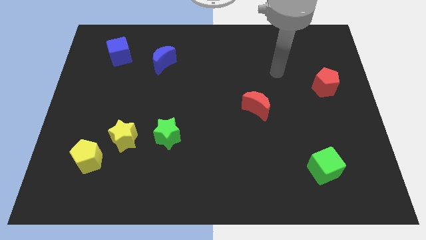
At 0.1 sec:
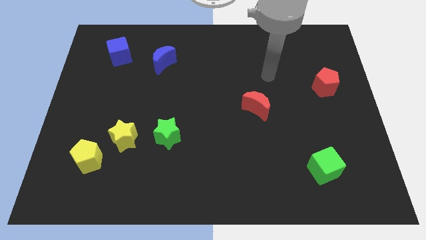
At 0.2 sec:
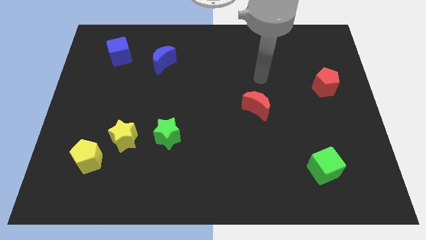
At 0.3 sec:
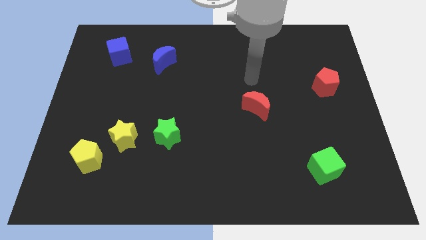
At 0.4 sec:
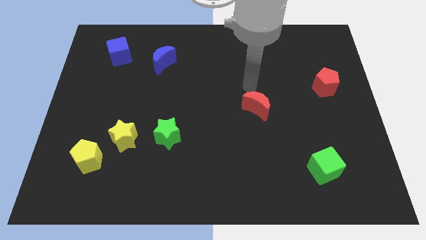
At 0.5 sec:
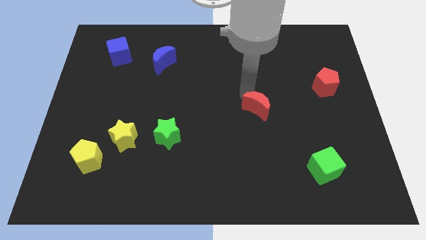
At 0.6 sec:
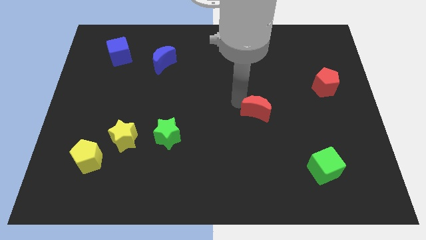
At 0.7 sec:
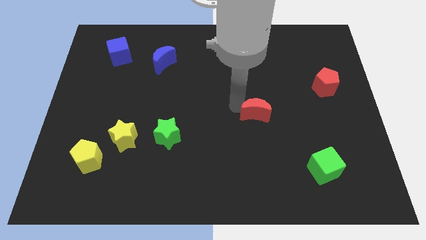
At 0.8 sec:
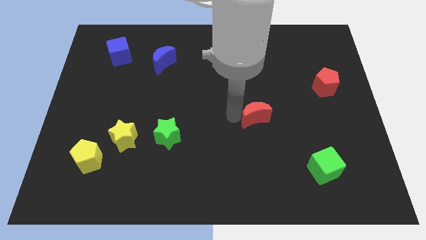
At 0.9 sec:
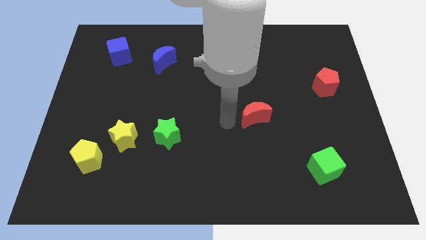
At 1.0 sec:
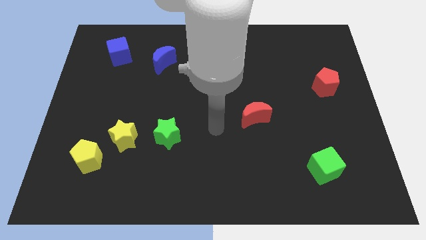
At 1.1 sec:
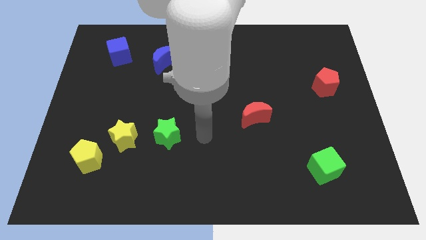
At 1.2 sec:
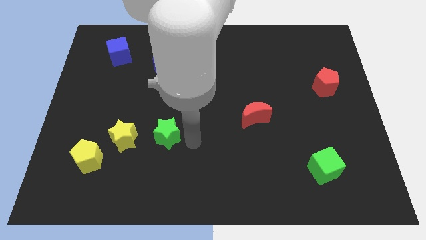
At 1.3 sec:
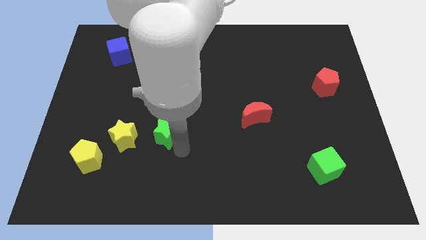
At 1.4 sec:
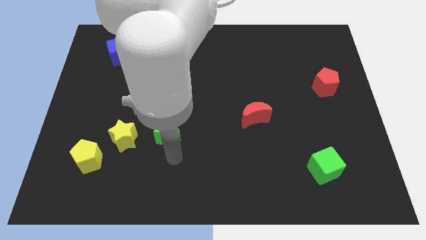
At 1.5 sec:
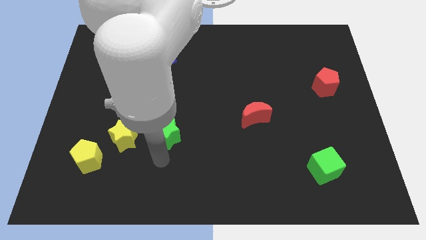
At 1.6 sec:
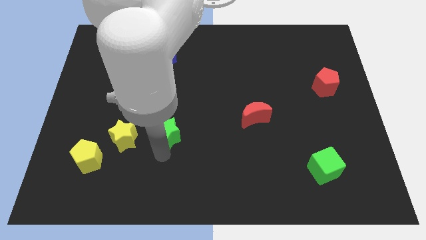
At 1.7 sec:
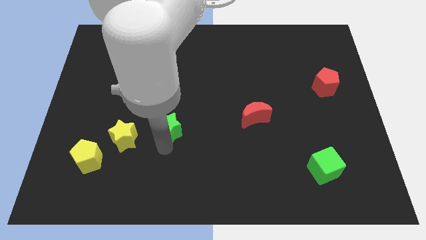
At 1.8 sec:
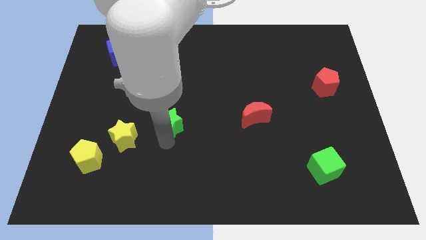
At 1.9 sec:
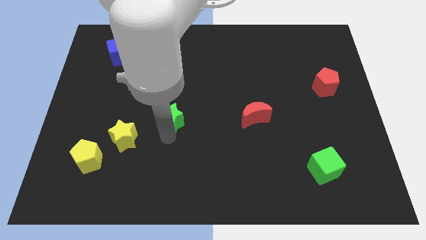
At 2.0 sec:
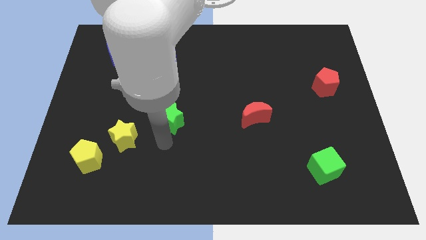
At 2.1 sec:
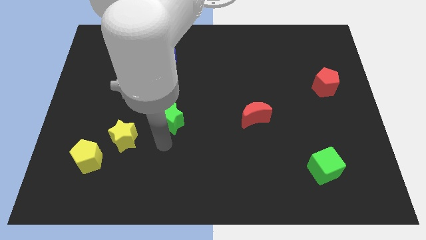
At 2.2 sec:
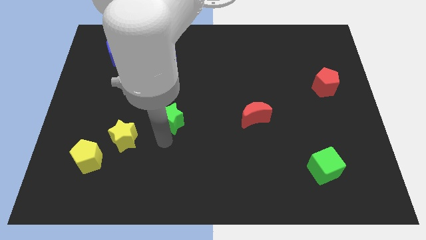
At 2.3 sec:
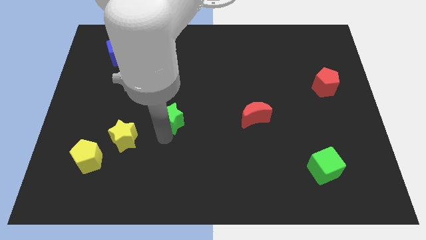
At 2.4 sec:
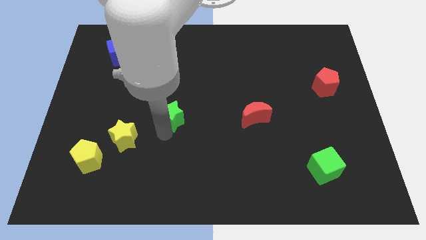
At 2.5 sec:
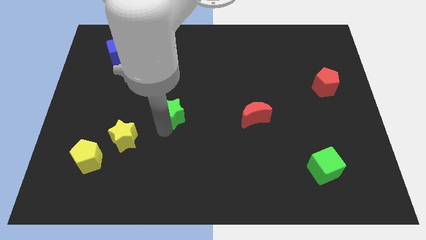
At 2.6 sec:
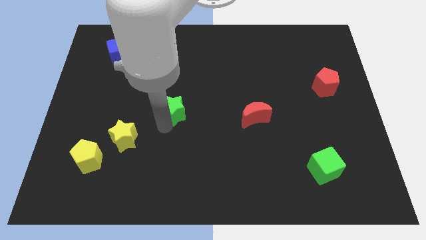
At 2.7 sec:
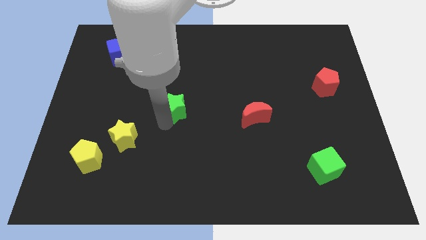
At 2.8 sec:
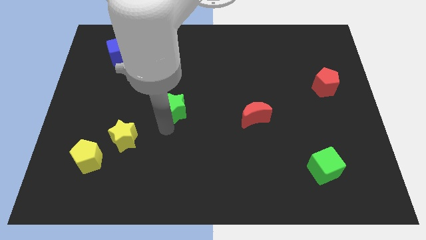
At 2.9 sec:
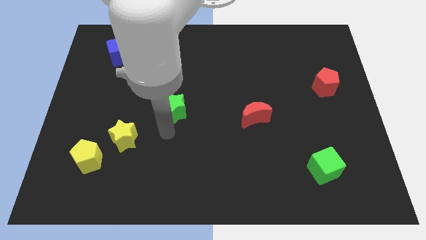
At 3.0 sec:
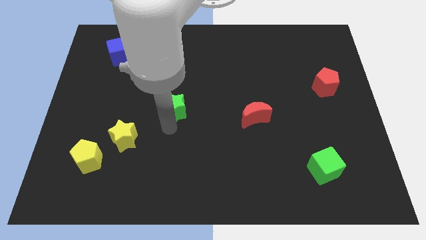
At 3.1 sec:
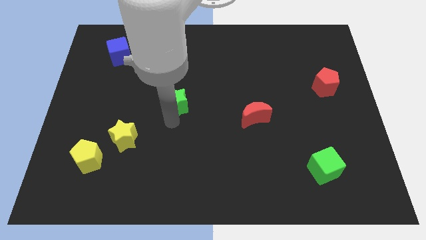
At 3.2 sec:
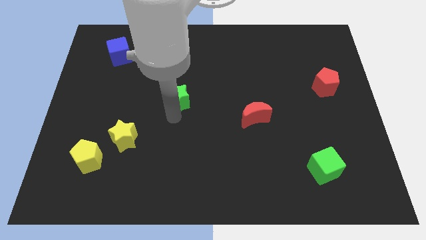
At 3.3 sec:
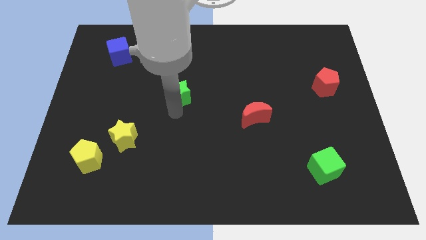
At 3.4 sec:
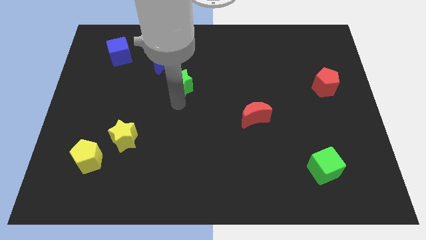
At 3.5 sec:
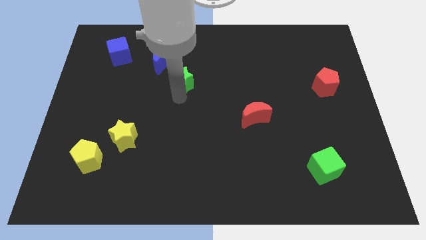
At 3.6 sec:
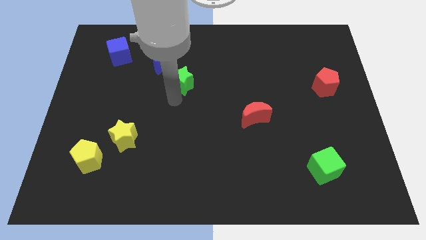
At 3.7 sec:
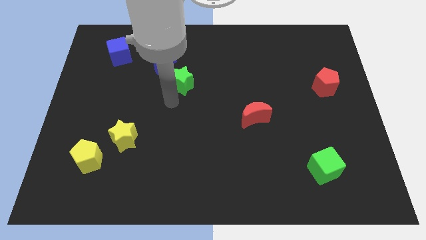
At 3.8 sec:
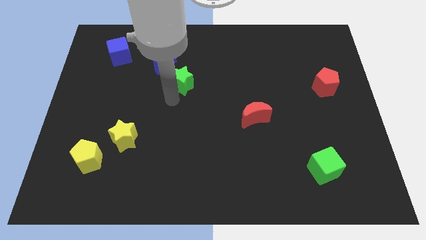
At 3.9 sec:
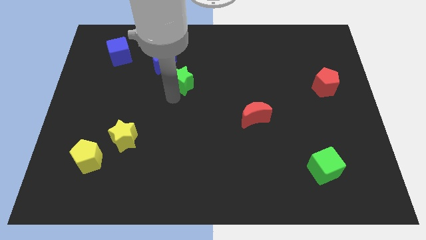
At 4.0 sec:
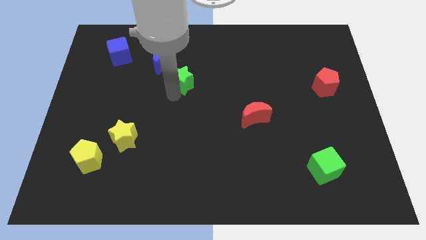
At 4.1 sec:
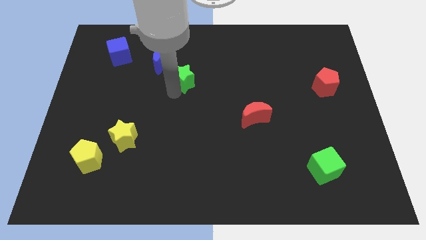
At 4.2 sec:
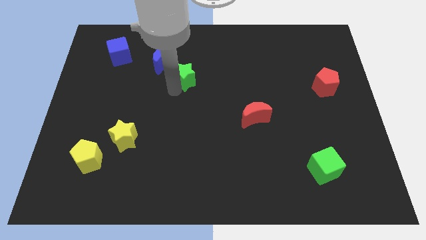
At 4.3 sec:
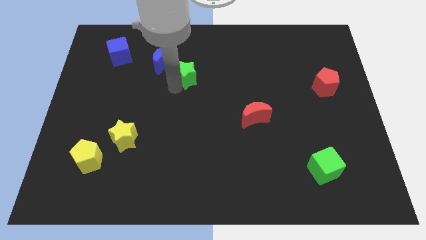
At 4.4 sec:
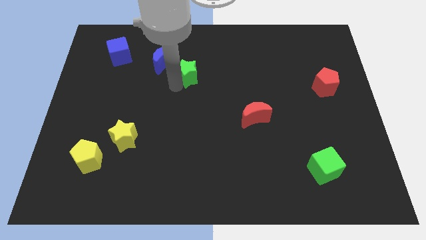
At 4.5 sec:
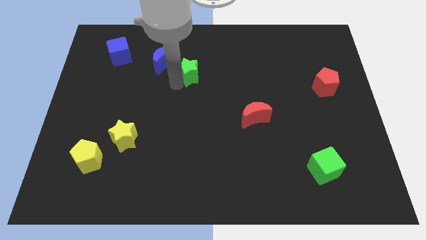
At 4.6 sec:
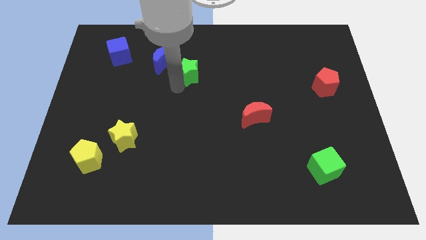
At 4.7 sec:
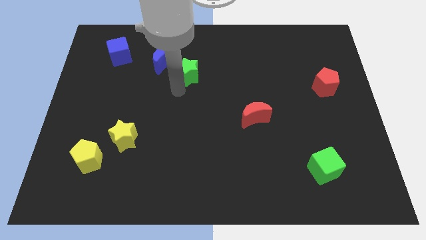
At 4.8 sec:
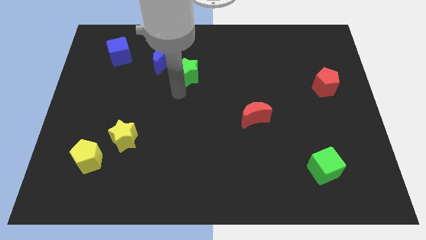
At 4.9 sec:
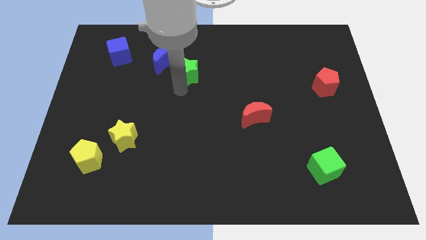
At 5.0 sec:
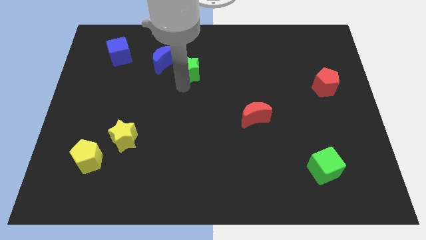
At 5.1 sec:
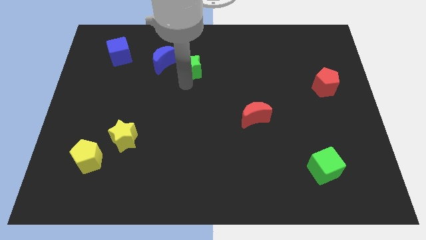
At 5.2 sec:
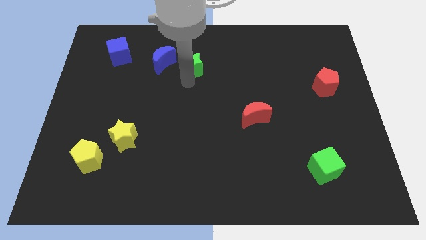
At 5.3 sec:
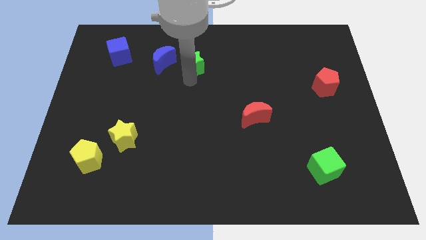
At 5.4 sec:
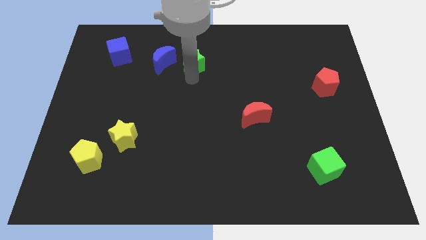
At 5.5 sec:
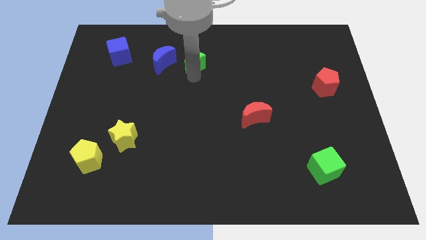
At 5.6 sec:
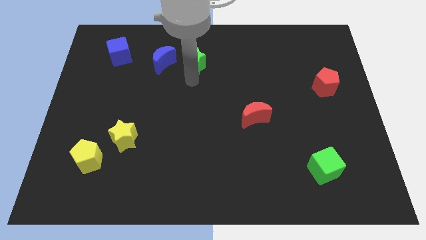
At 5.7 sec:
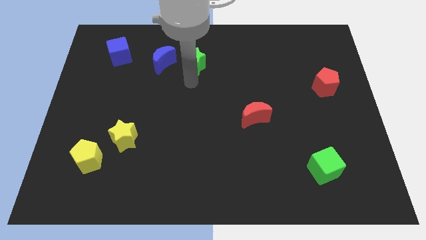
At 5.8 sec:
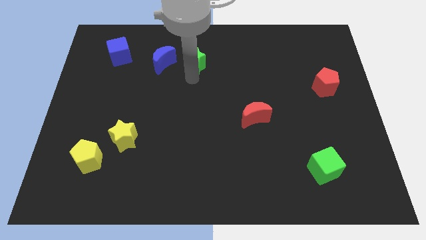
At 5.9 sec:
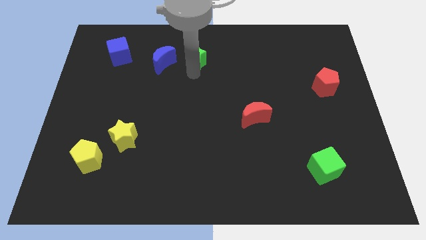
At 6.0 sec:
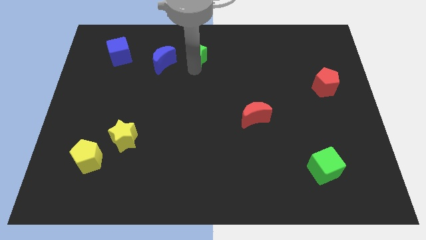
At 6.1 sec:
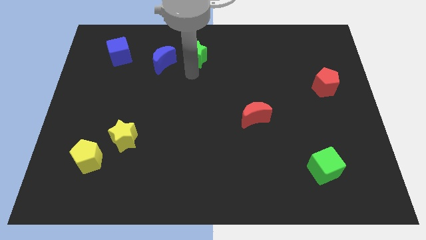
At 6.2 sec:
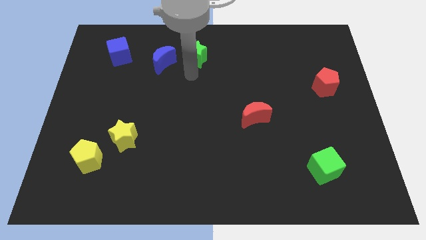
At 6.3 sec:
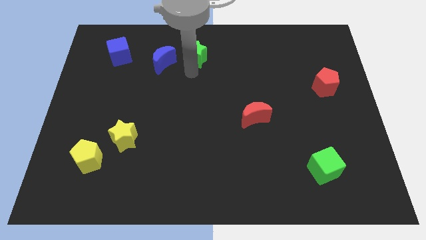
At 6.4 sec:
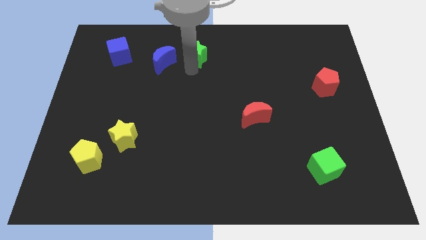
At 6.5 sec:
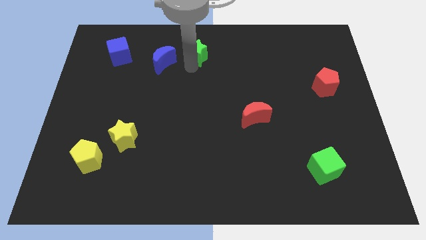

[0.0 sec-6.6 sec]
push the green star to the top
